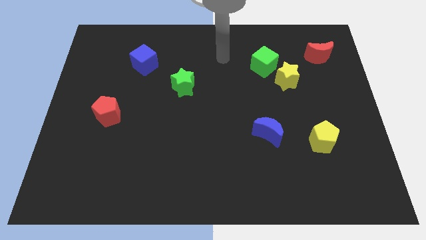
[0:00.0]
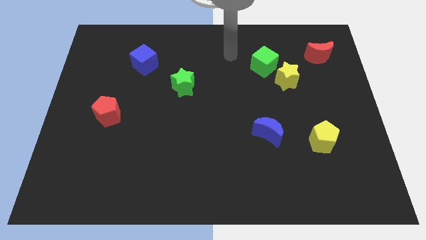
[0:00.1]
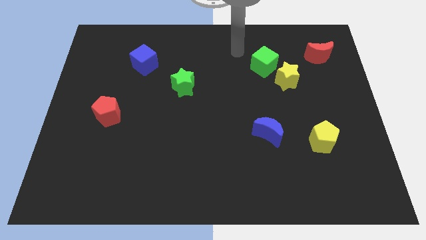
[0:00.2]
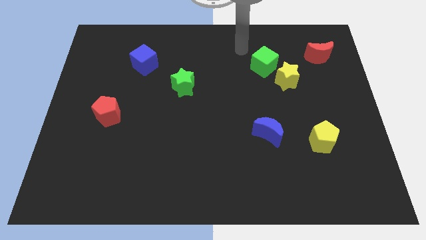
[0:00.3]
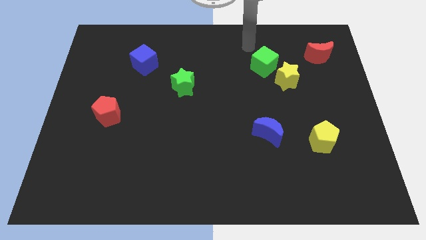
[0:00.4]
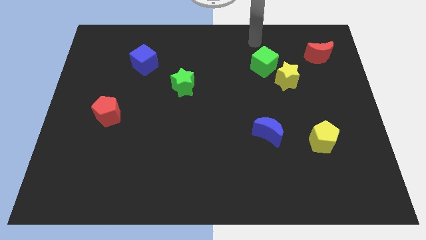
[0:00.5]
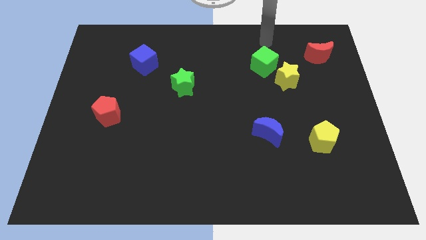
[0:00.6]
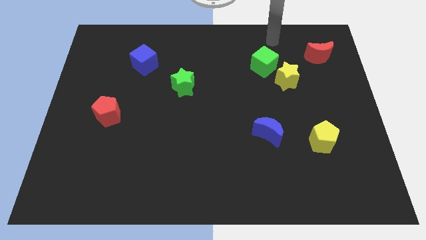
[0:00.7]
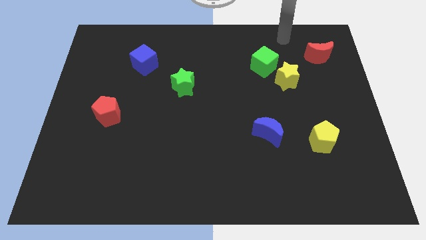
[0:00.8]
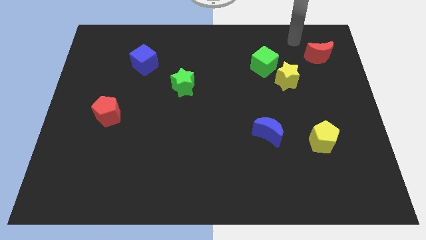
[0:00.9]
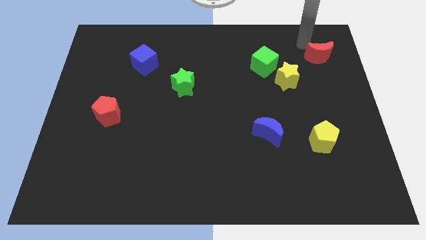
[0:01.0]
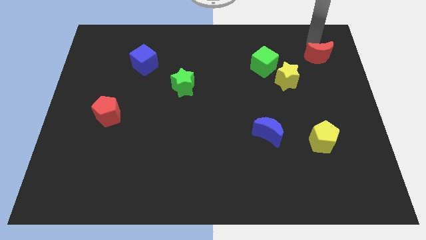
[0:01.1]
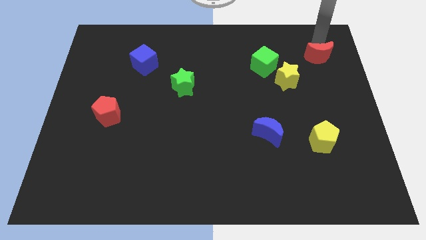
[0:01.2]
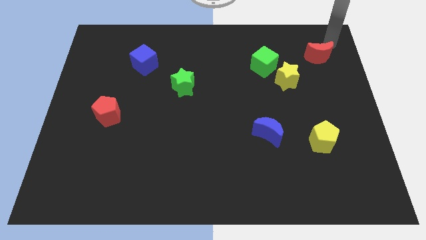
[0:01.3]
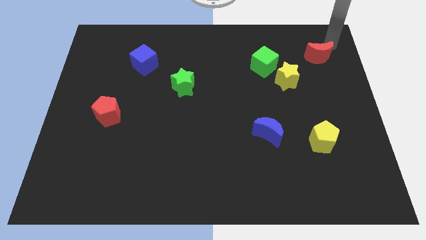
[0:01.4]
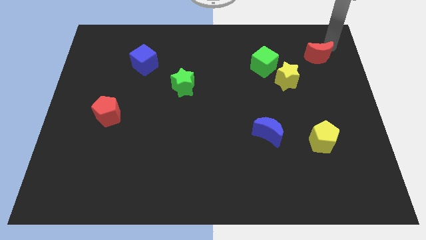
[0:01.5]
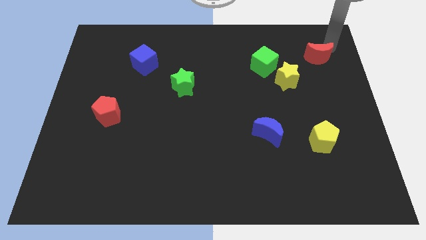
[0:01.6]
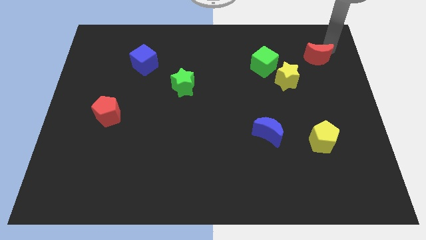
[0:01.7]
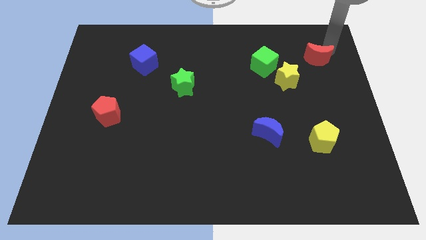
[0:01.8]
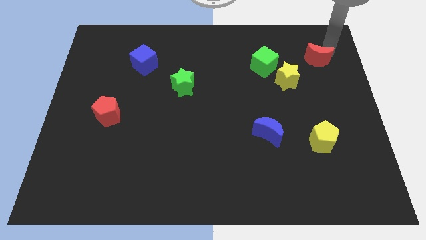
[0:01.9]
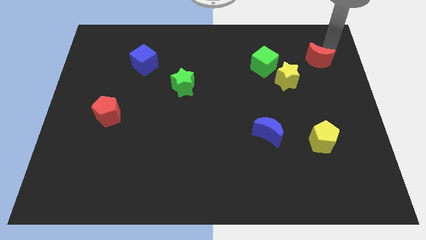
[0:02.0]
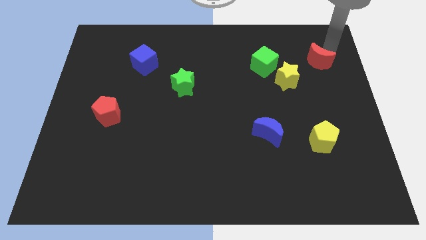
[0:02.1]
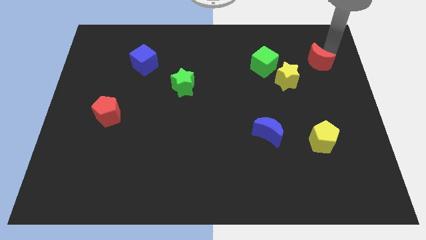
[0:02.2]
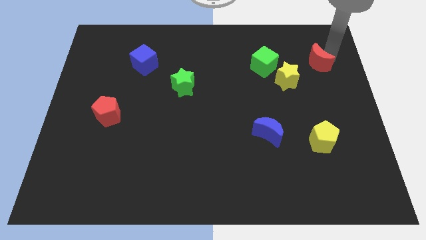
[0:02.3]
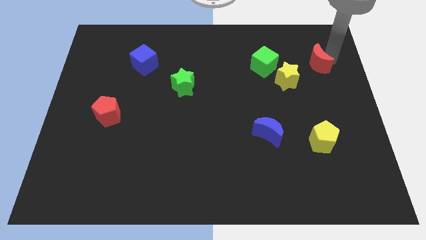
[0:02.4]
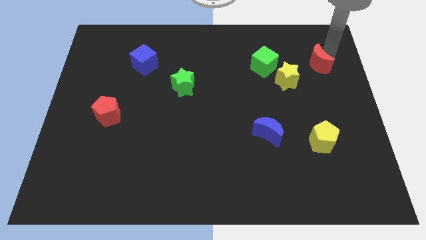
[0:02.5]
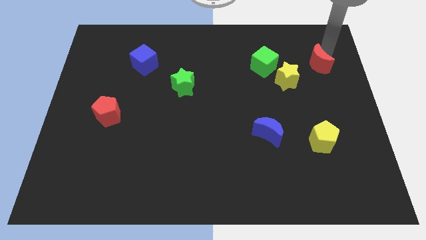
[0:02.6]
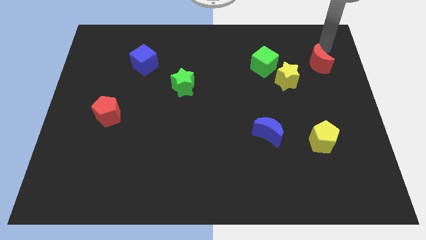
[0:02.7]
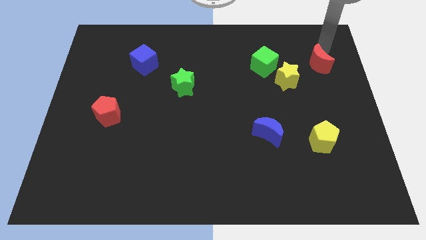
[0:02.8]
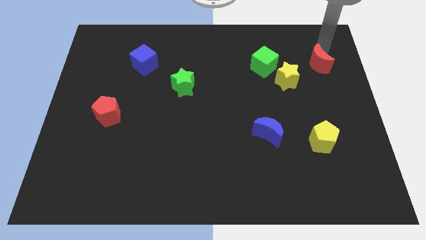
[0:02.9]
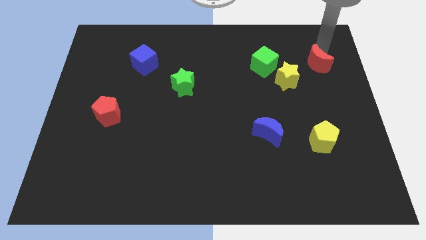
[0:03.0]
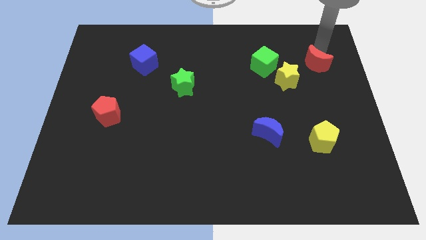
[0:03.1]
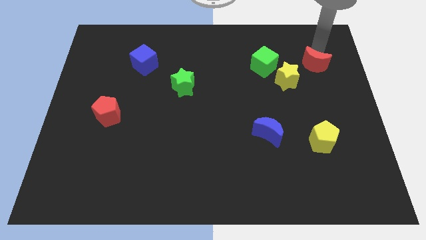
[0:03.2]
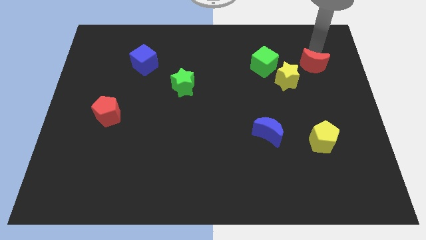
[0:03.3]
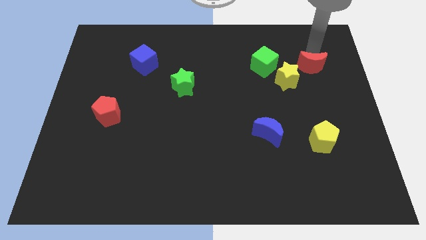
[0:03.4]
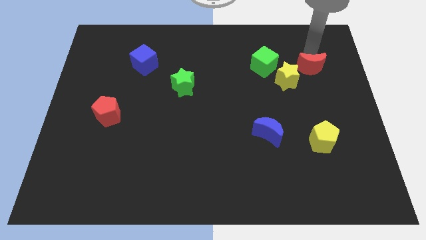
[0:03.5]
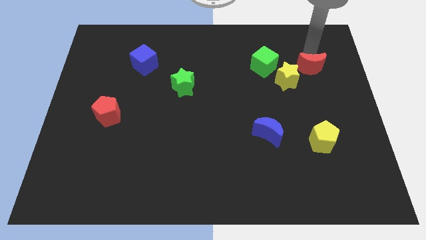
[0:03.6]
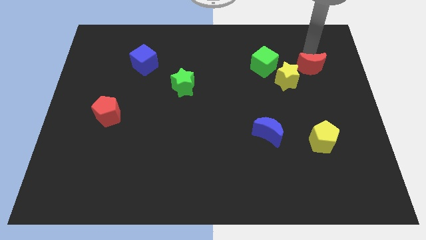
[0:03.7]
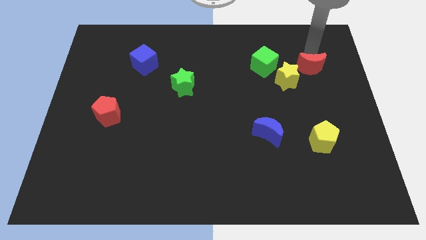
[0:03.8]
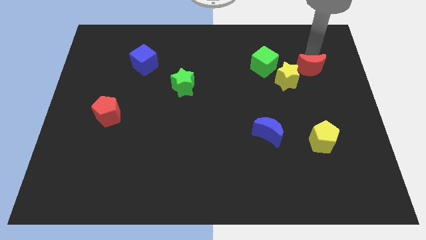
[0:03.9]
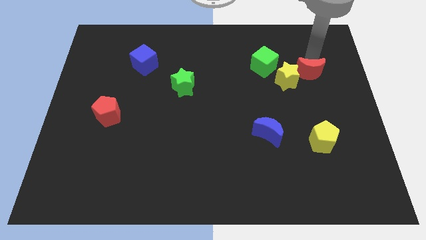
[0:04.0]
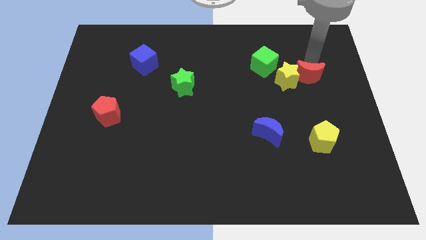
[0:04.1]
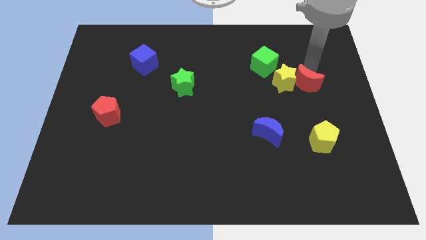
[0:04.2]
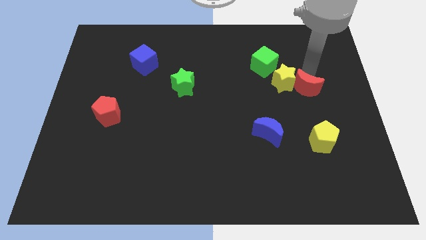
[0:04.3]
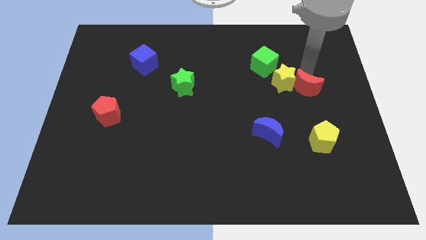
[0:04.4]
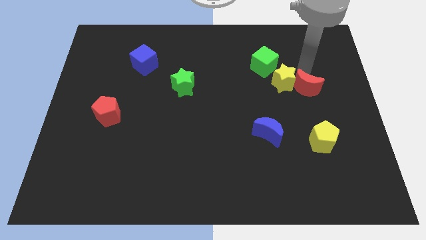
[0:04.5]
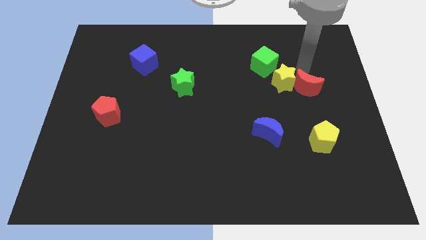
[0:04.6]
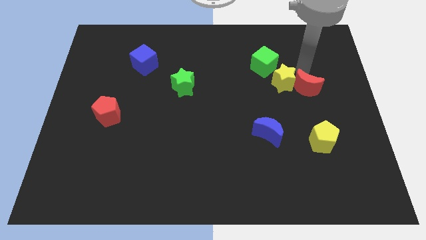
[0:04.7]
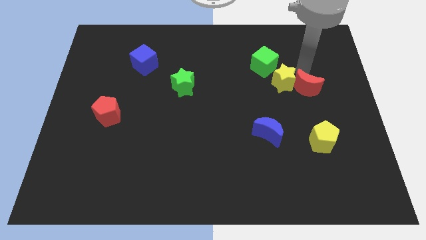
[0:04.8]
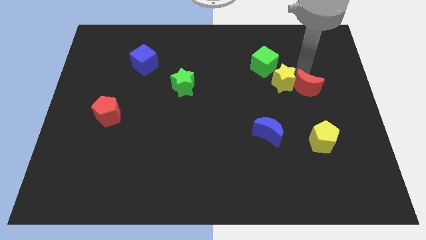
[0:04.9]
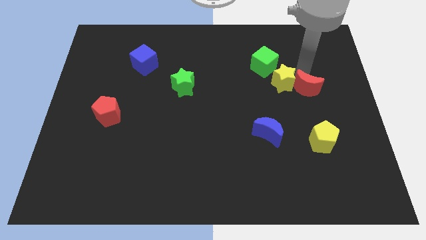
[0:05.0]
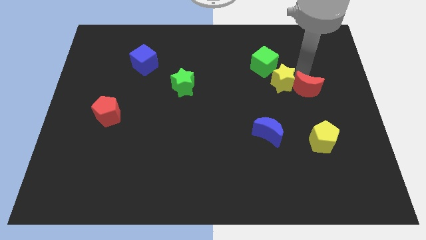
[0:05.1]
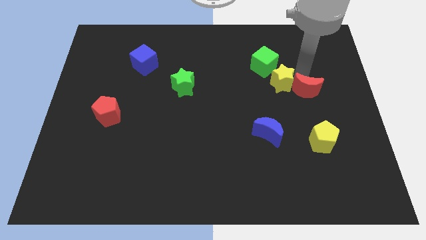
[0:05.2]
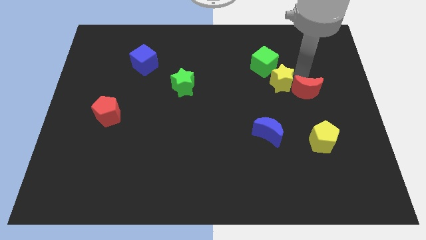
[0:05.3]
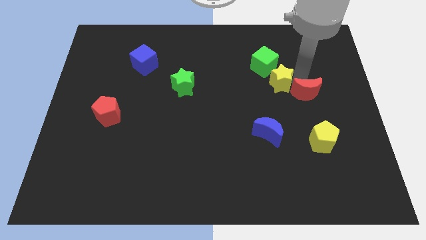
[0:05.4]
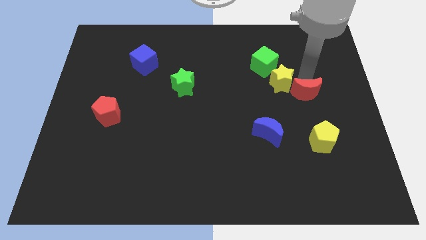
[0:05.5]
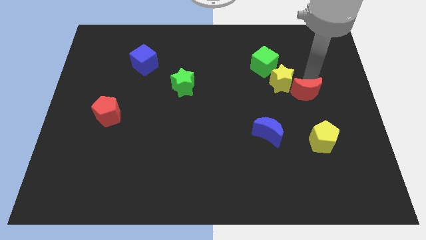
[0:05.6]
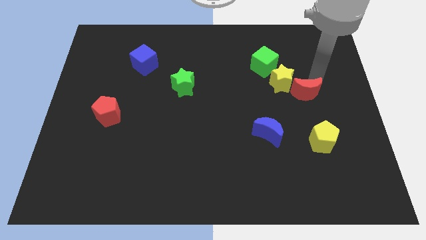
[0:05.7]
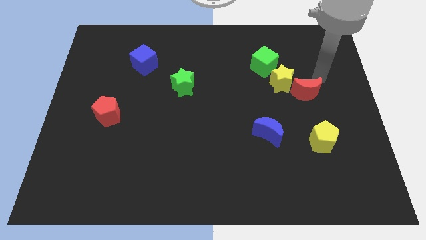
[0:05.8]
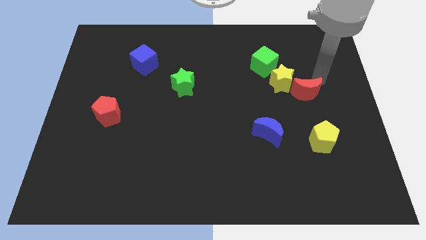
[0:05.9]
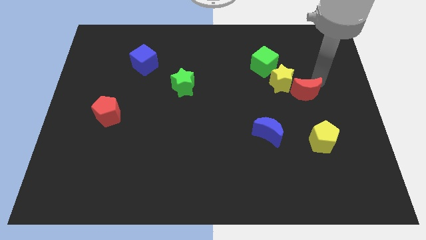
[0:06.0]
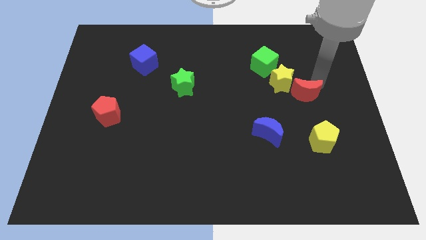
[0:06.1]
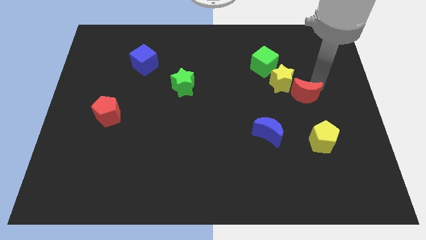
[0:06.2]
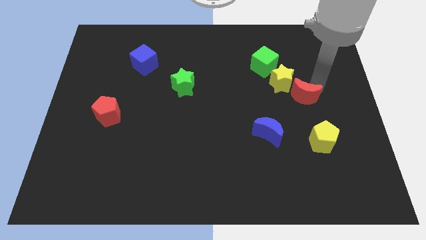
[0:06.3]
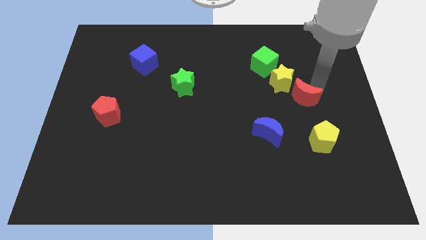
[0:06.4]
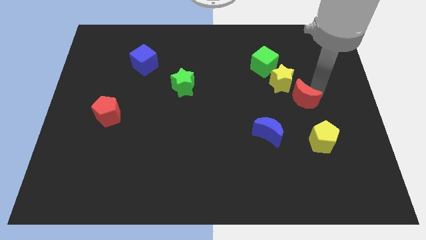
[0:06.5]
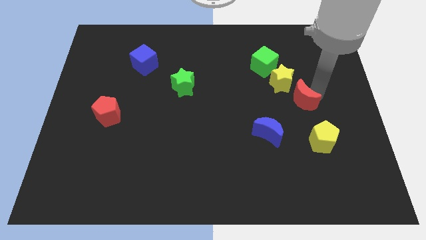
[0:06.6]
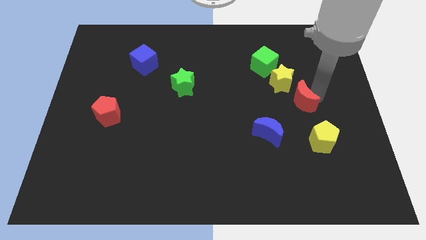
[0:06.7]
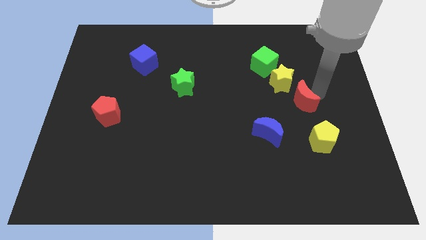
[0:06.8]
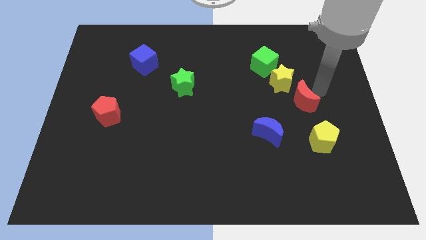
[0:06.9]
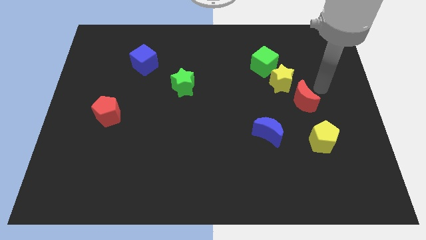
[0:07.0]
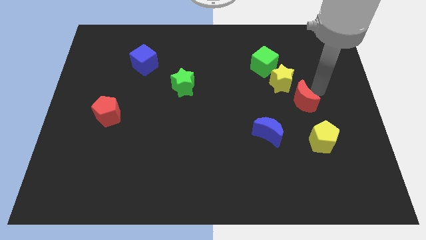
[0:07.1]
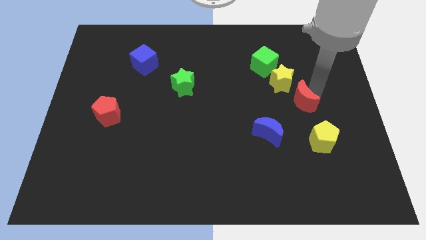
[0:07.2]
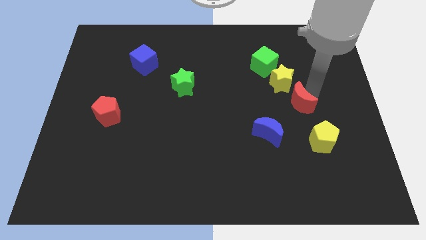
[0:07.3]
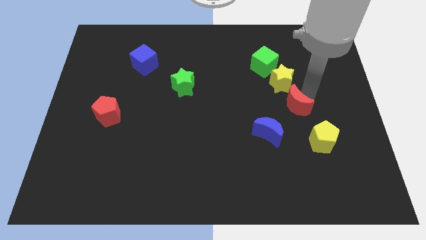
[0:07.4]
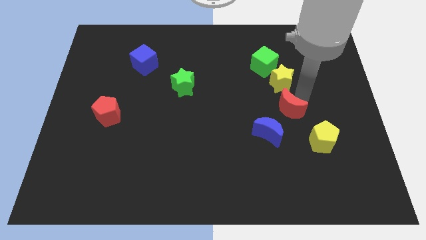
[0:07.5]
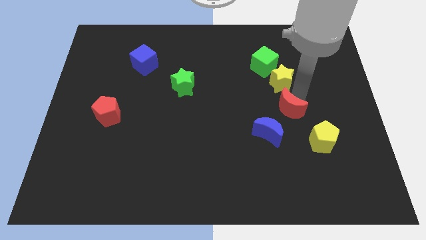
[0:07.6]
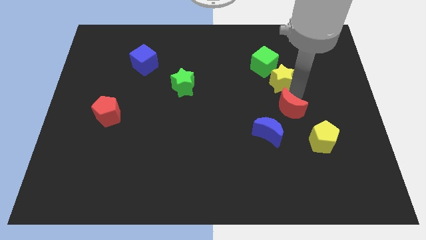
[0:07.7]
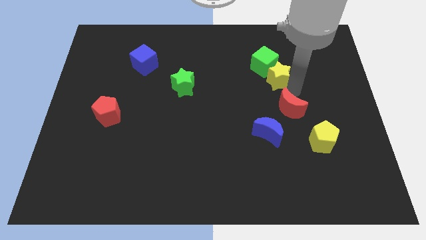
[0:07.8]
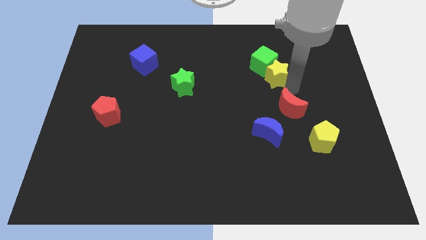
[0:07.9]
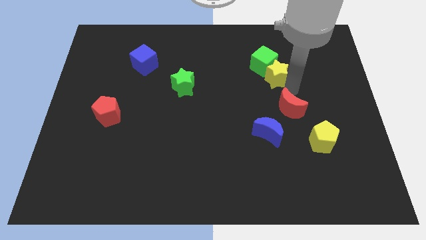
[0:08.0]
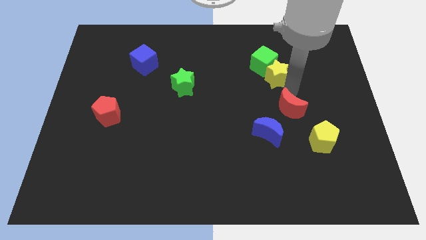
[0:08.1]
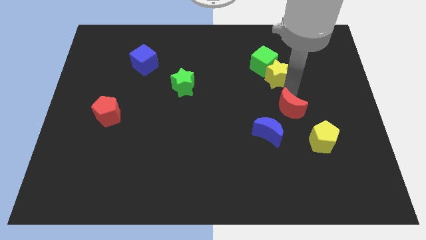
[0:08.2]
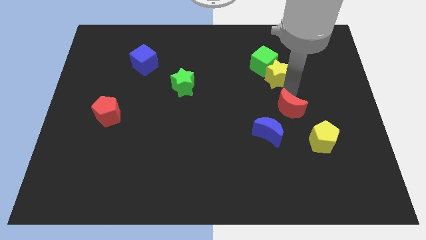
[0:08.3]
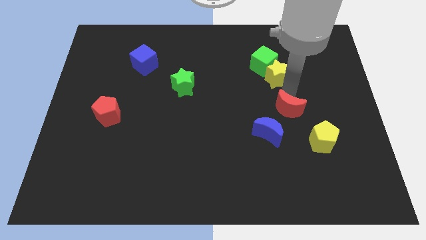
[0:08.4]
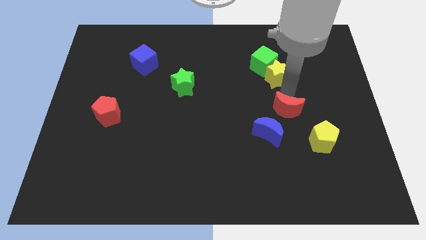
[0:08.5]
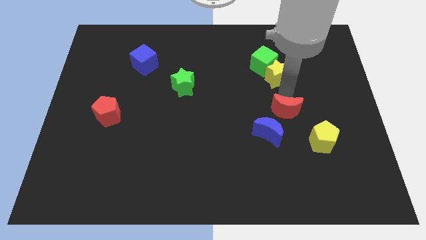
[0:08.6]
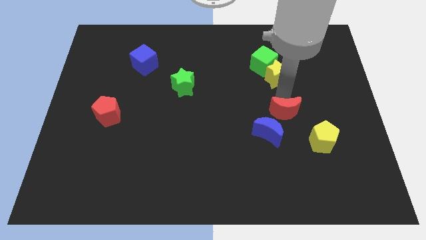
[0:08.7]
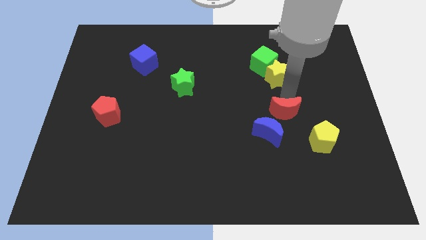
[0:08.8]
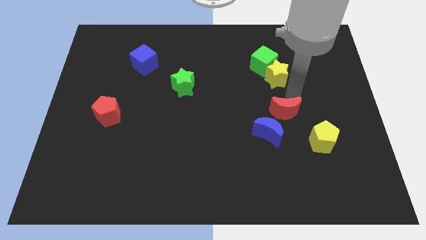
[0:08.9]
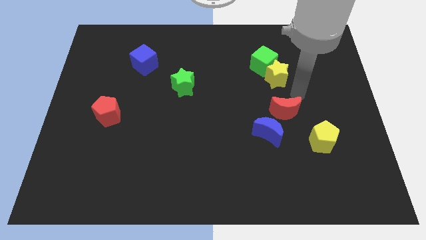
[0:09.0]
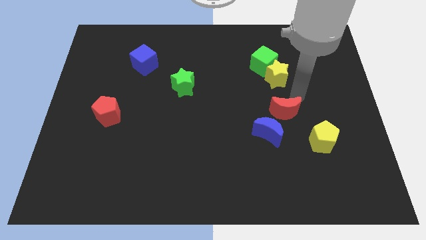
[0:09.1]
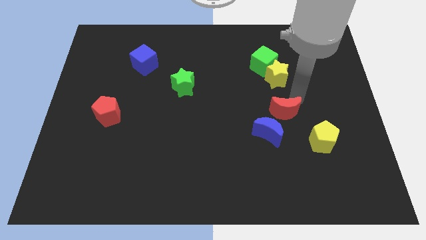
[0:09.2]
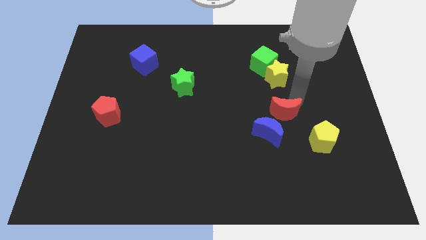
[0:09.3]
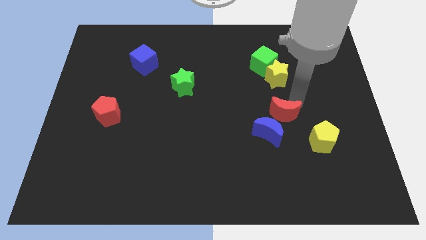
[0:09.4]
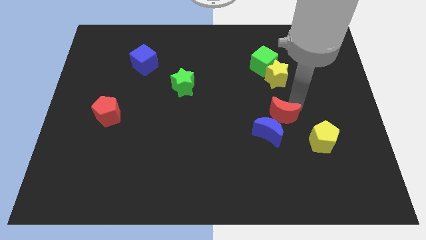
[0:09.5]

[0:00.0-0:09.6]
push the red moon next to the blue moon
